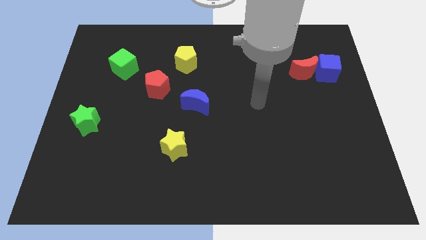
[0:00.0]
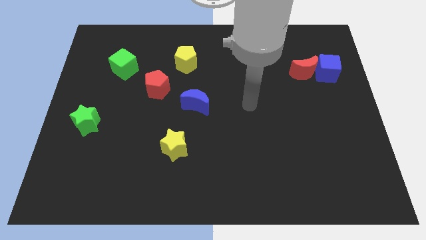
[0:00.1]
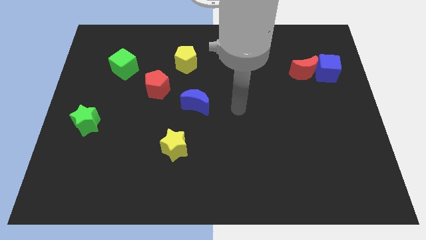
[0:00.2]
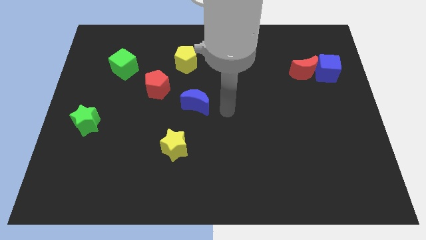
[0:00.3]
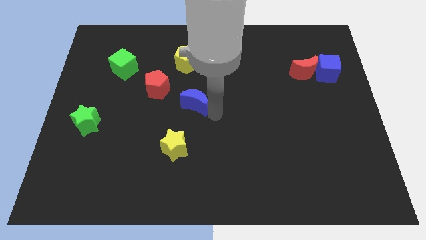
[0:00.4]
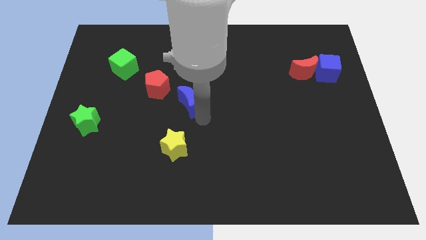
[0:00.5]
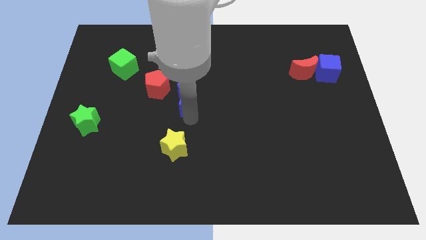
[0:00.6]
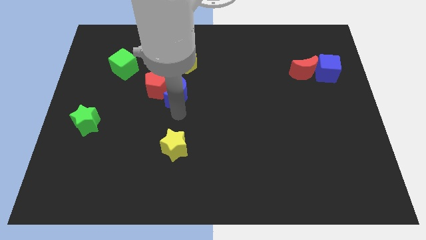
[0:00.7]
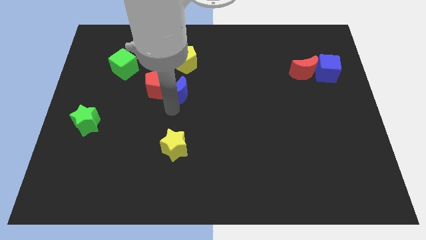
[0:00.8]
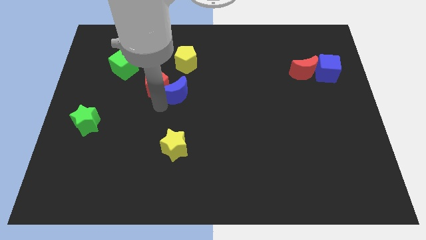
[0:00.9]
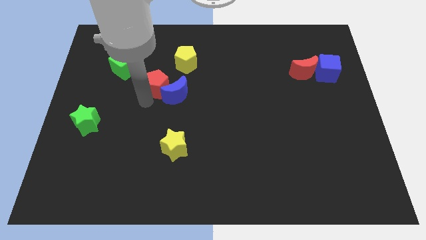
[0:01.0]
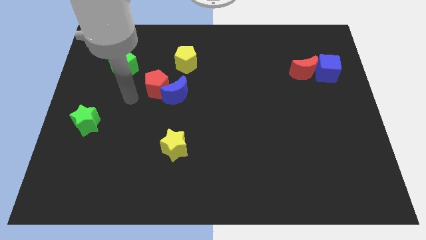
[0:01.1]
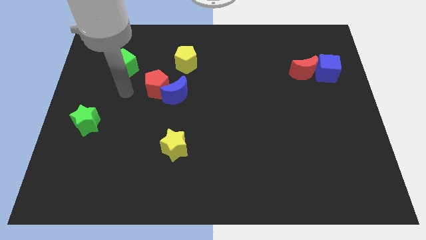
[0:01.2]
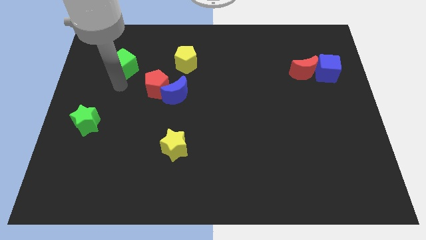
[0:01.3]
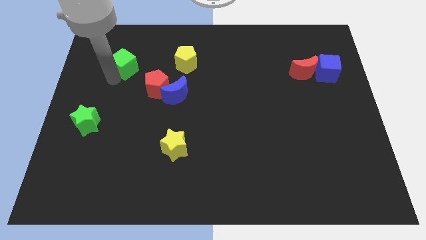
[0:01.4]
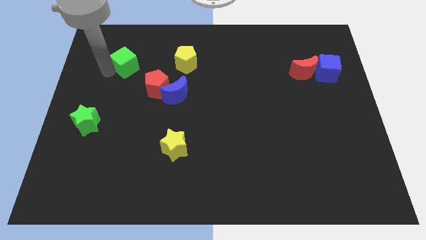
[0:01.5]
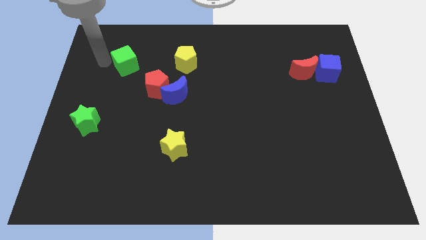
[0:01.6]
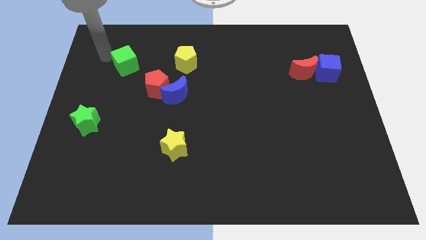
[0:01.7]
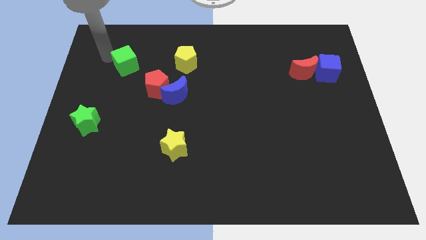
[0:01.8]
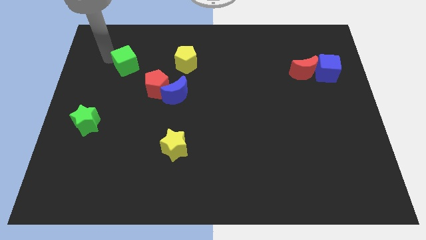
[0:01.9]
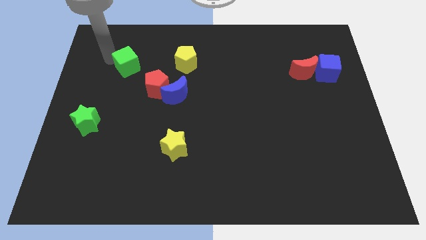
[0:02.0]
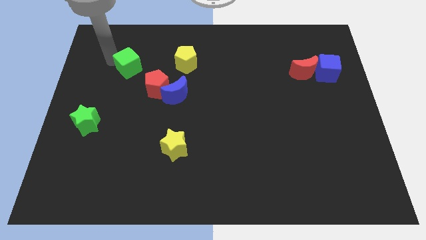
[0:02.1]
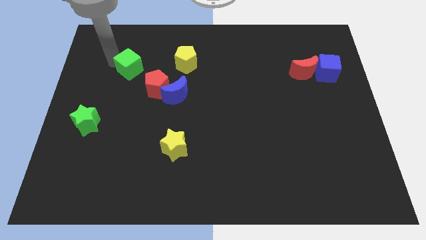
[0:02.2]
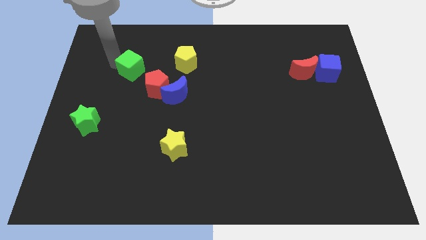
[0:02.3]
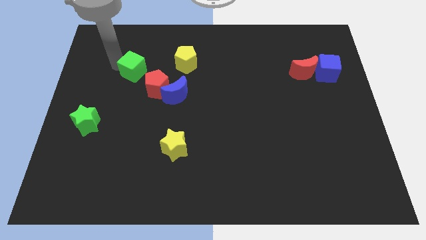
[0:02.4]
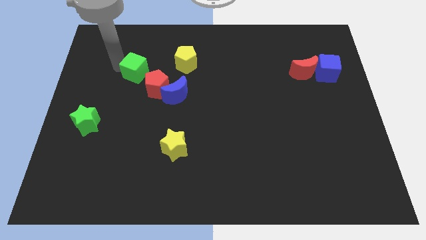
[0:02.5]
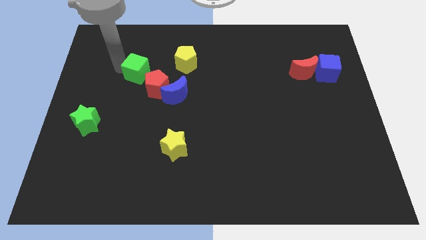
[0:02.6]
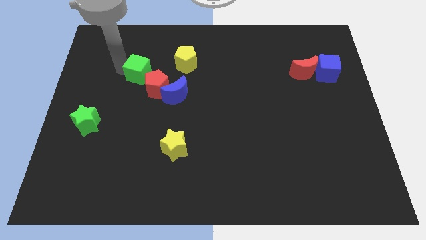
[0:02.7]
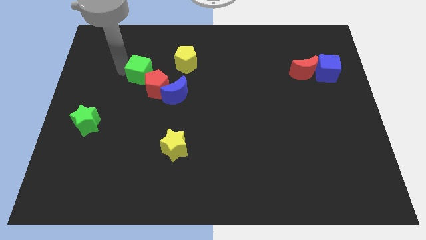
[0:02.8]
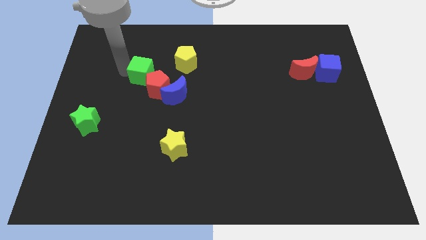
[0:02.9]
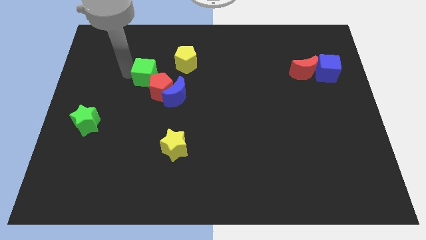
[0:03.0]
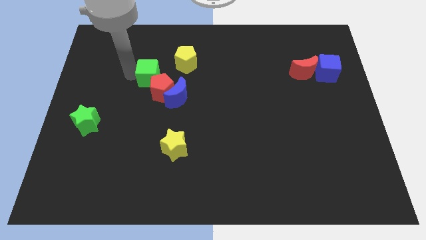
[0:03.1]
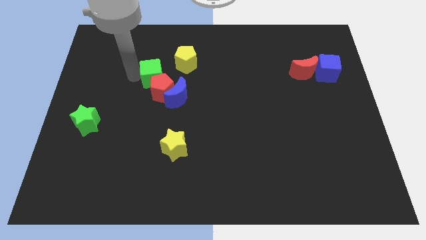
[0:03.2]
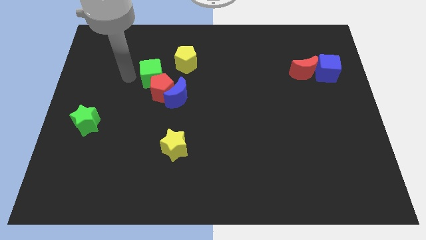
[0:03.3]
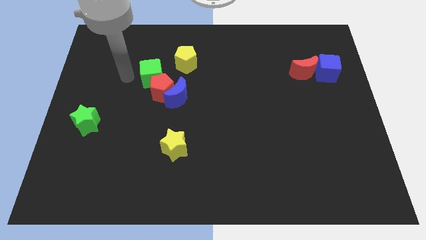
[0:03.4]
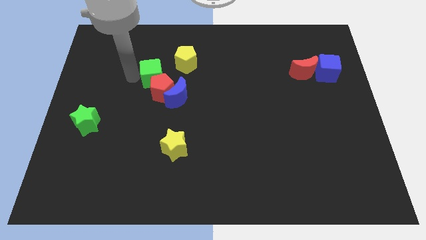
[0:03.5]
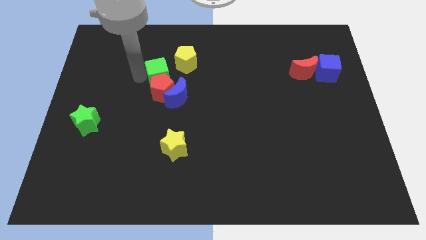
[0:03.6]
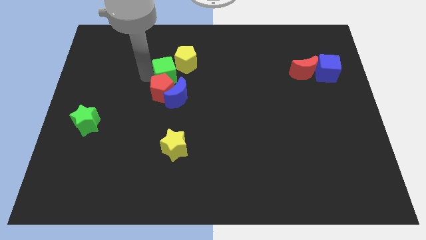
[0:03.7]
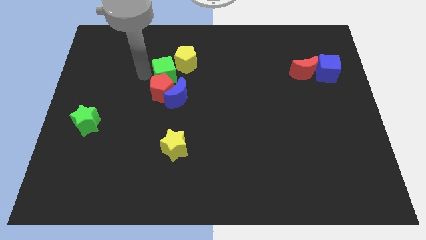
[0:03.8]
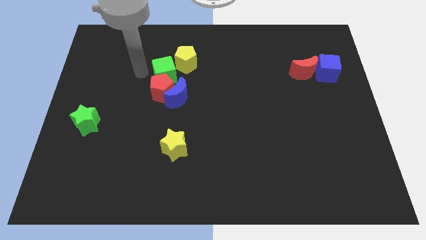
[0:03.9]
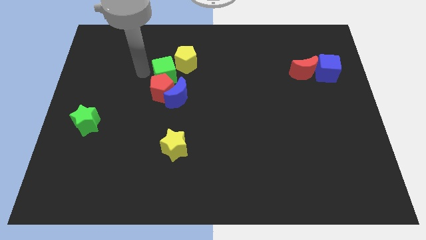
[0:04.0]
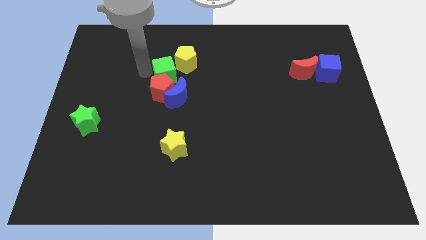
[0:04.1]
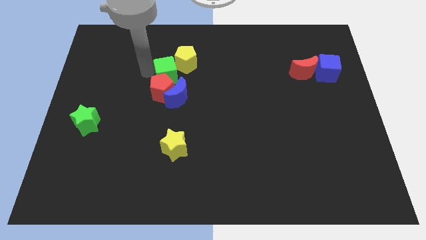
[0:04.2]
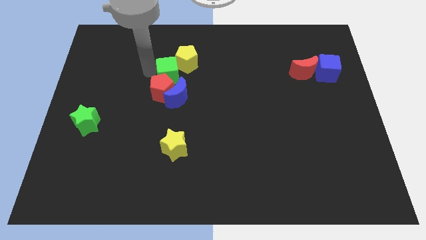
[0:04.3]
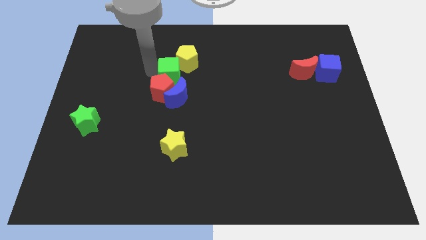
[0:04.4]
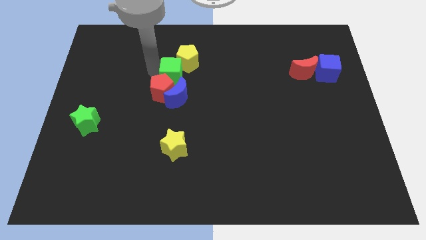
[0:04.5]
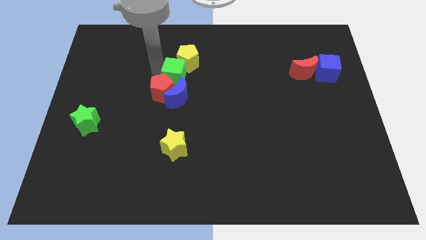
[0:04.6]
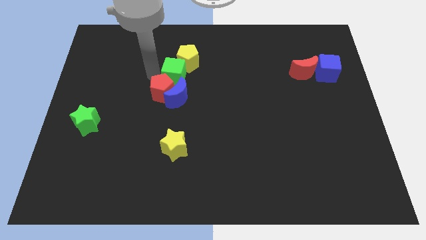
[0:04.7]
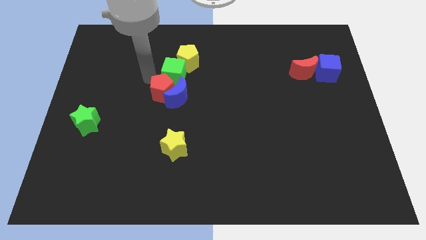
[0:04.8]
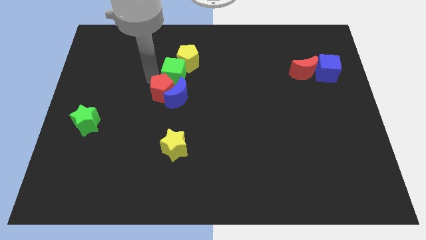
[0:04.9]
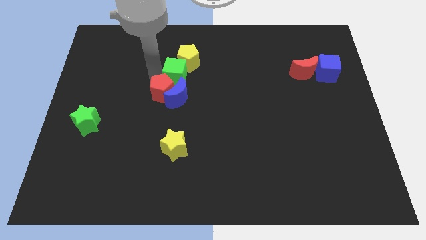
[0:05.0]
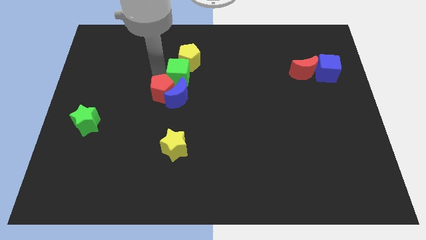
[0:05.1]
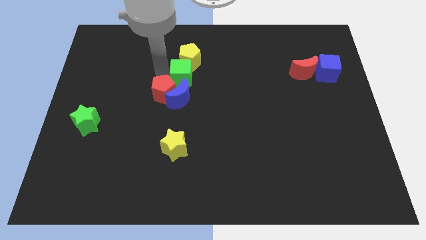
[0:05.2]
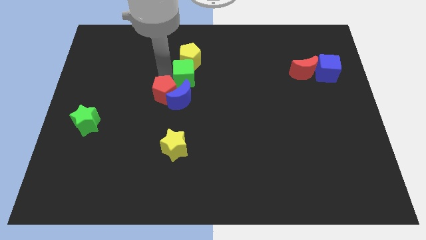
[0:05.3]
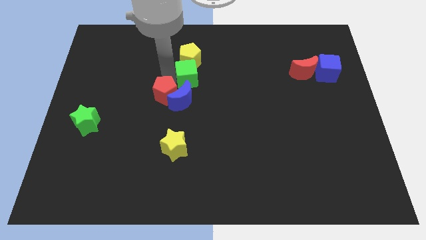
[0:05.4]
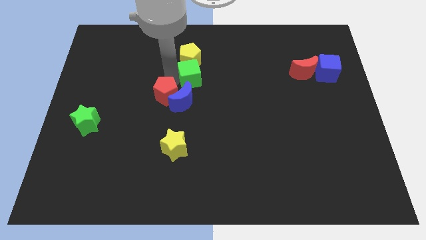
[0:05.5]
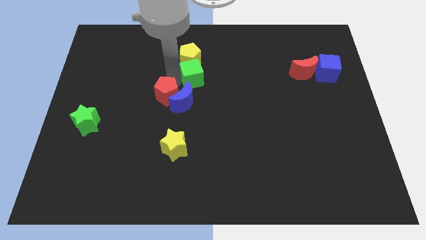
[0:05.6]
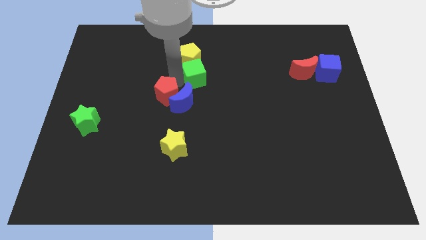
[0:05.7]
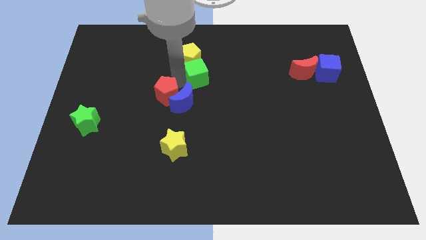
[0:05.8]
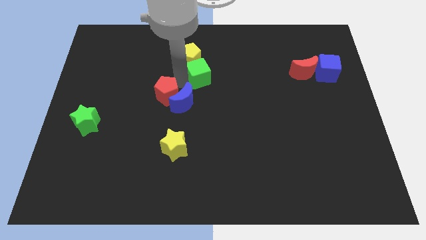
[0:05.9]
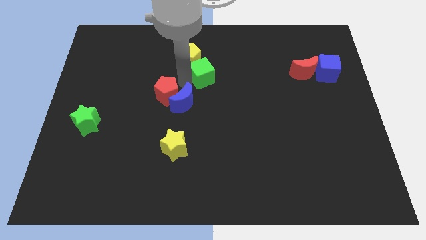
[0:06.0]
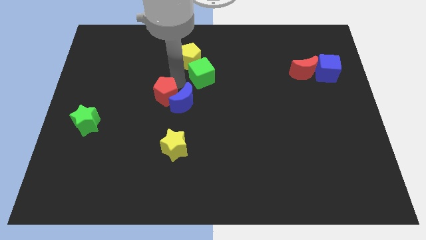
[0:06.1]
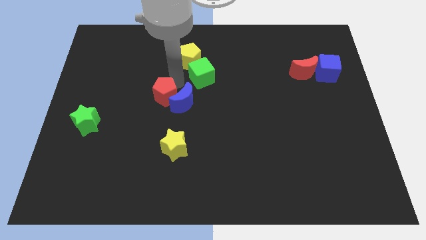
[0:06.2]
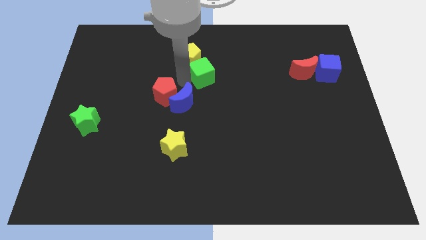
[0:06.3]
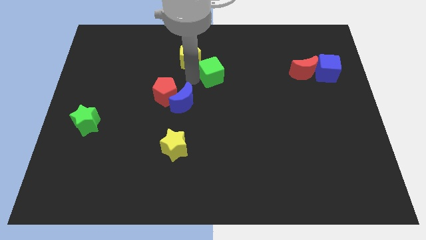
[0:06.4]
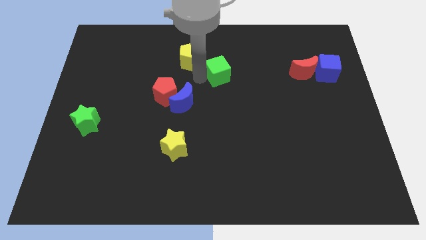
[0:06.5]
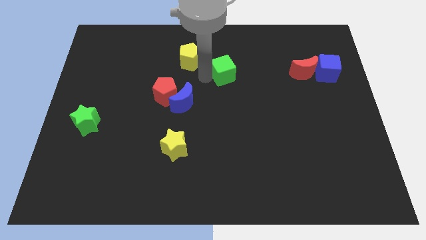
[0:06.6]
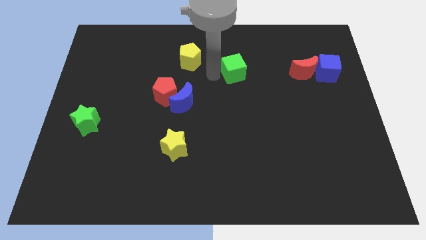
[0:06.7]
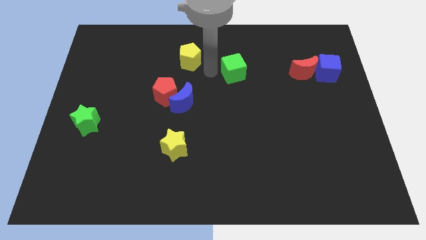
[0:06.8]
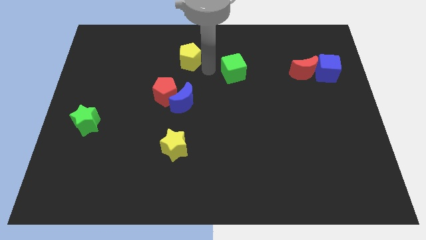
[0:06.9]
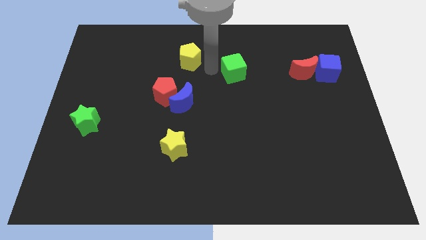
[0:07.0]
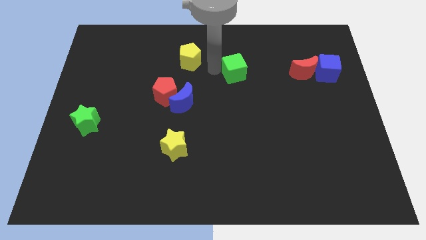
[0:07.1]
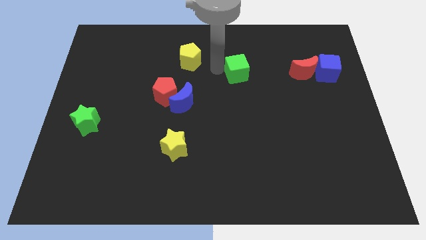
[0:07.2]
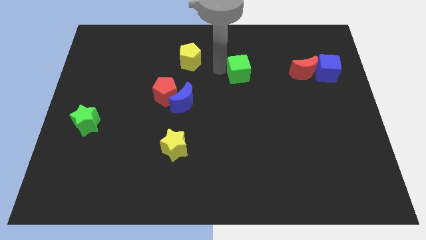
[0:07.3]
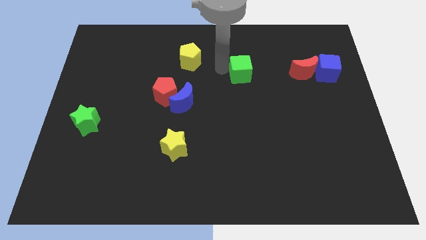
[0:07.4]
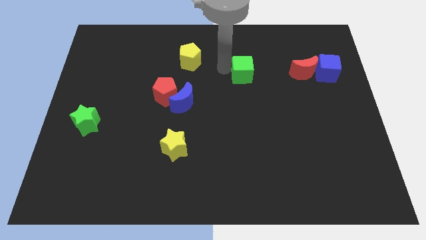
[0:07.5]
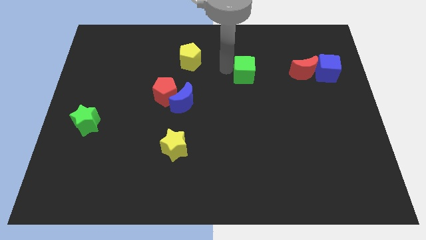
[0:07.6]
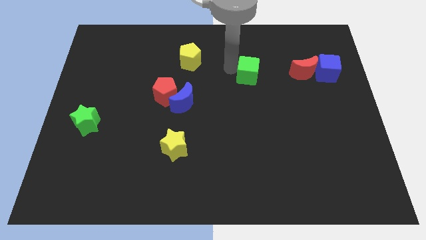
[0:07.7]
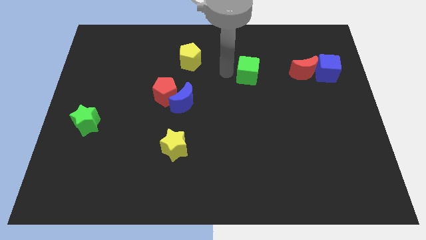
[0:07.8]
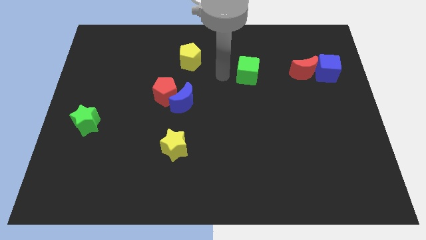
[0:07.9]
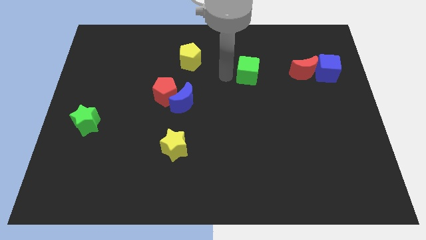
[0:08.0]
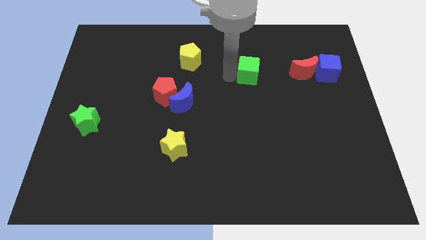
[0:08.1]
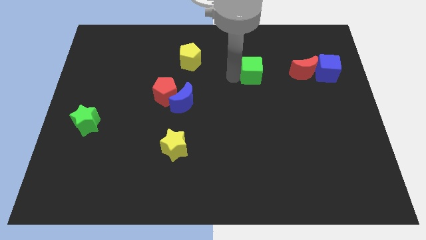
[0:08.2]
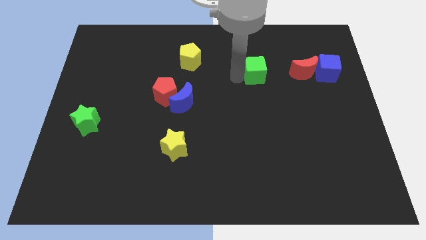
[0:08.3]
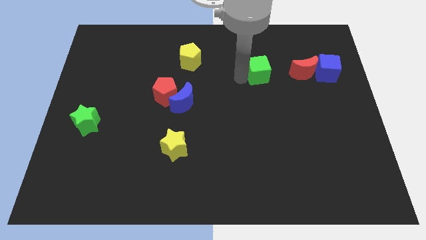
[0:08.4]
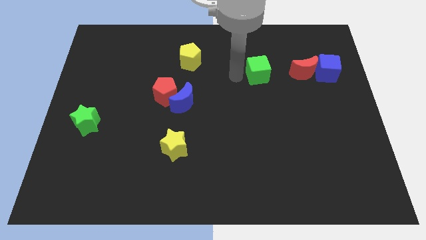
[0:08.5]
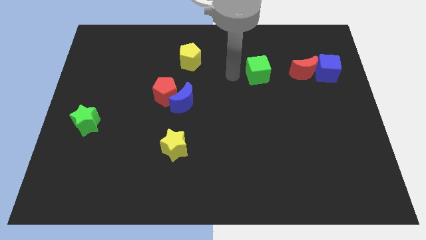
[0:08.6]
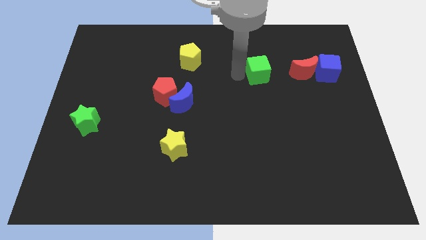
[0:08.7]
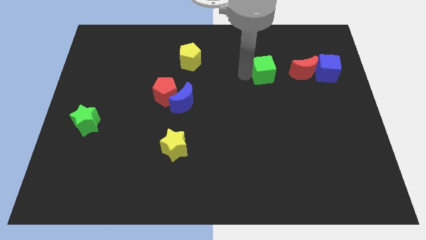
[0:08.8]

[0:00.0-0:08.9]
move the green cube to the left side of the blue cube
